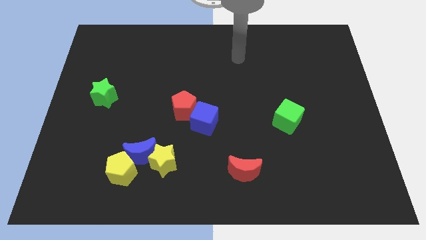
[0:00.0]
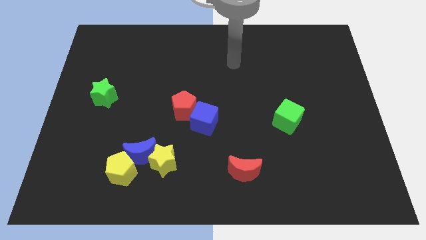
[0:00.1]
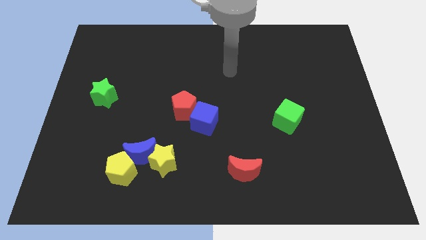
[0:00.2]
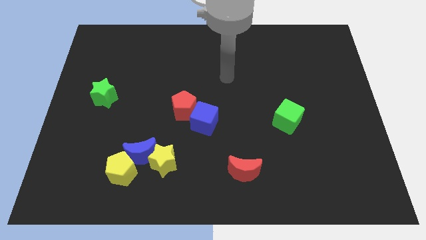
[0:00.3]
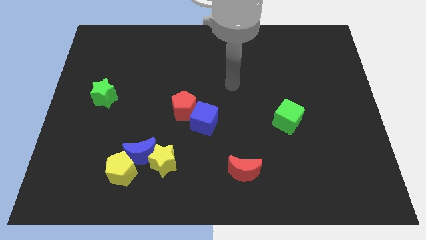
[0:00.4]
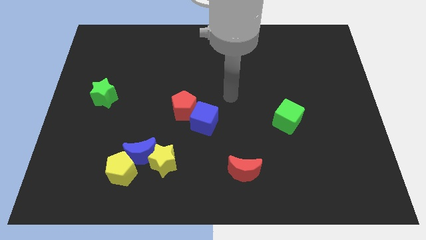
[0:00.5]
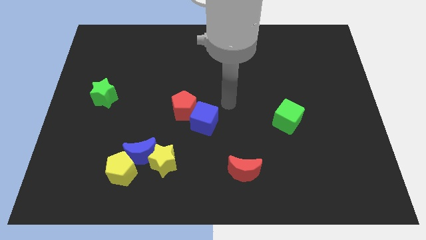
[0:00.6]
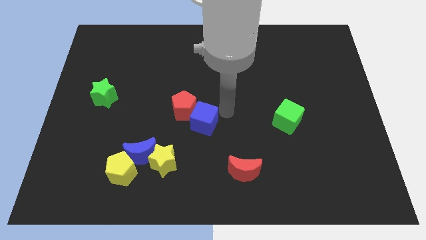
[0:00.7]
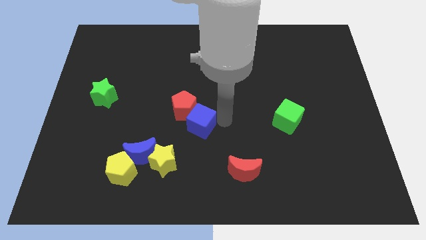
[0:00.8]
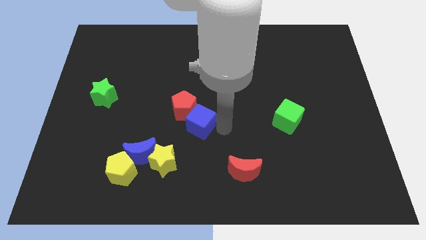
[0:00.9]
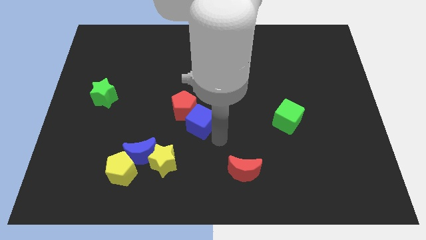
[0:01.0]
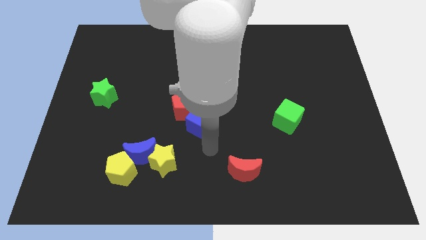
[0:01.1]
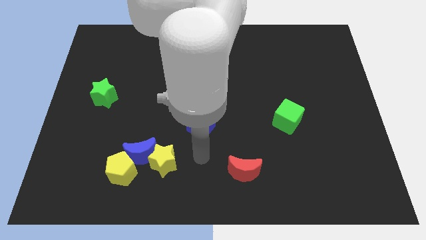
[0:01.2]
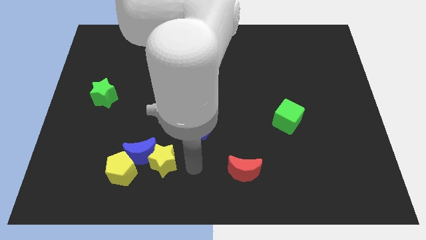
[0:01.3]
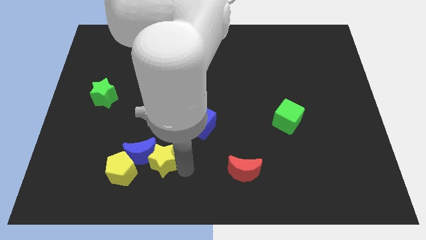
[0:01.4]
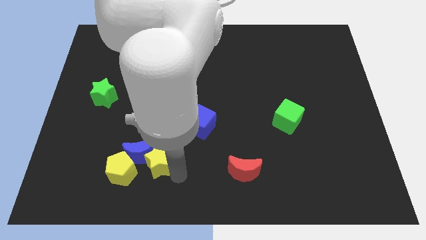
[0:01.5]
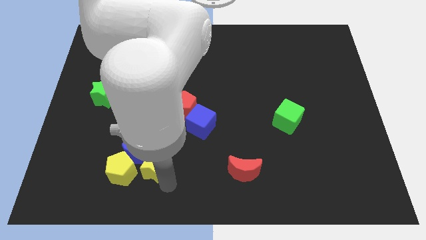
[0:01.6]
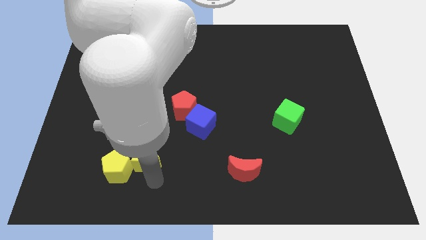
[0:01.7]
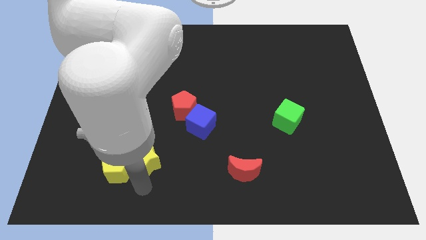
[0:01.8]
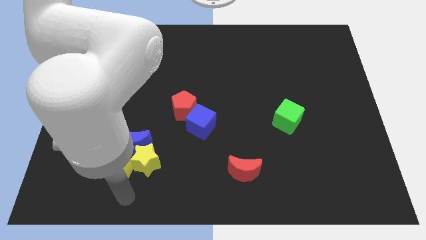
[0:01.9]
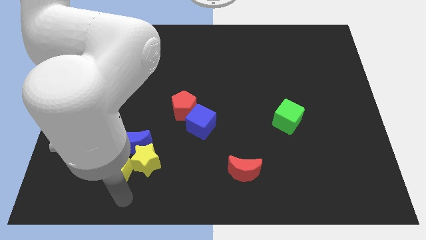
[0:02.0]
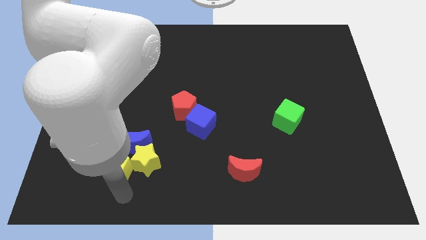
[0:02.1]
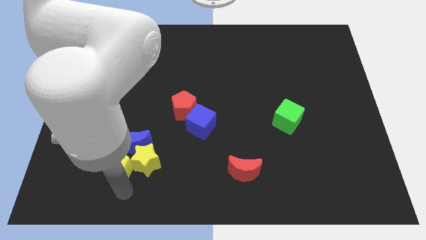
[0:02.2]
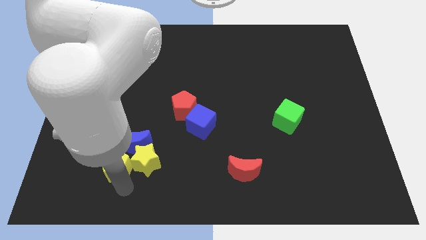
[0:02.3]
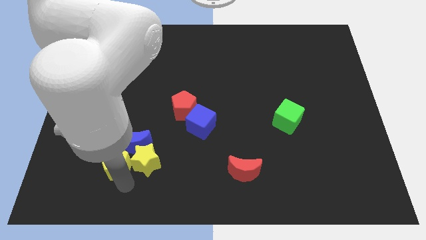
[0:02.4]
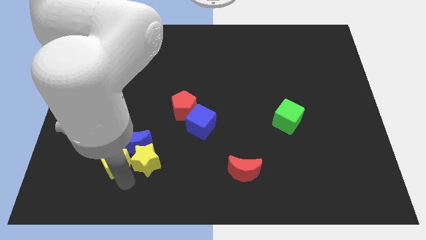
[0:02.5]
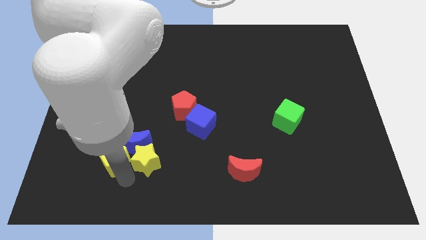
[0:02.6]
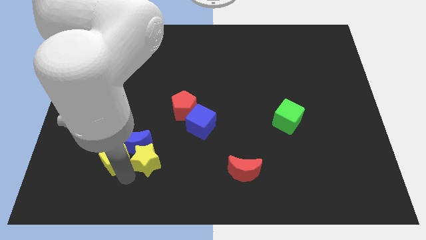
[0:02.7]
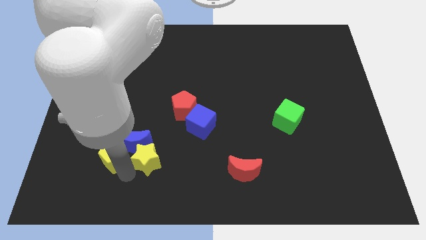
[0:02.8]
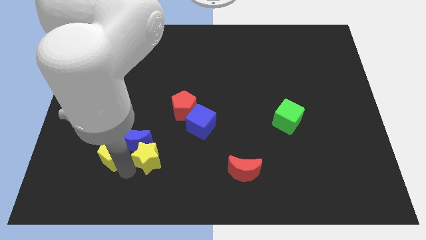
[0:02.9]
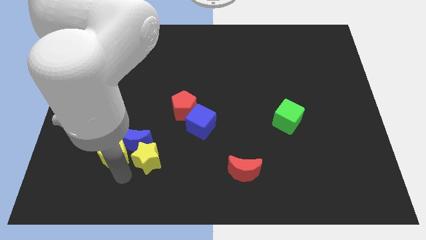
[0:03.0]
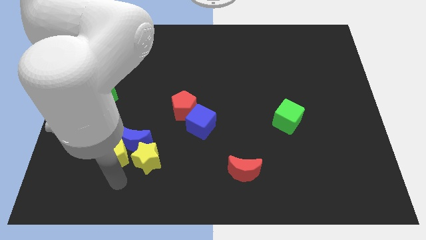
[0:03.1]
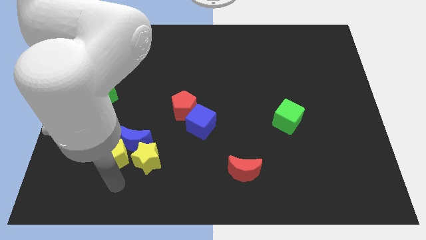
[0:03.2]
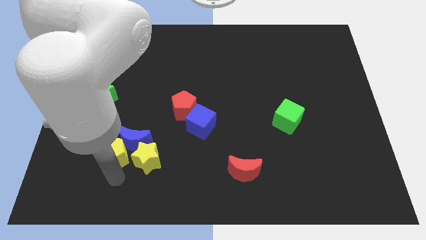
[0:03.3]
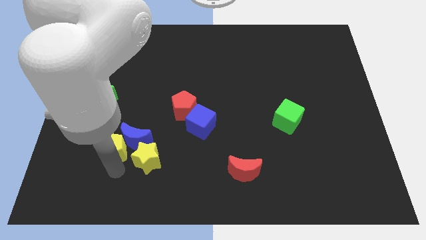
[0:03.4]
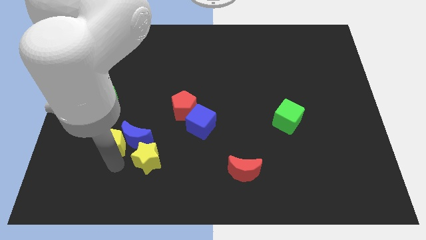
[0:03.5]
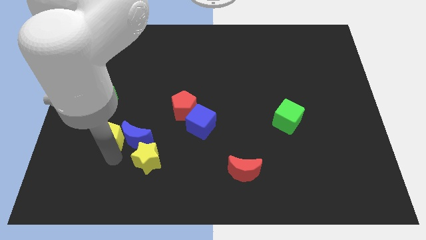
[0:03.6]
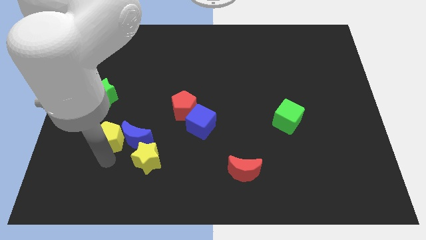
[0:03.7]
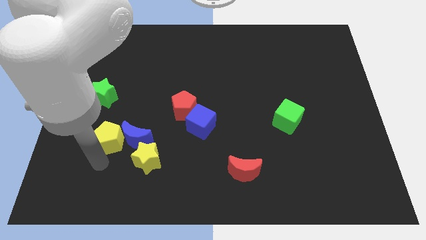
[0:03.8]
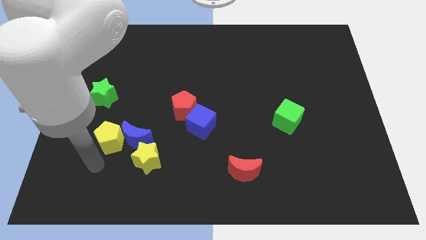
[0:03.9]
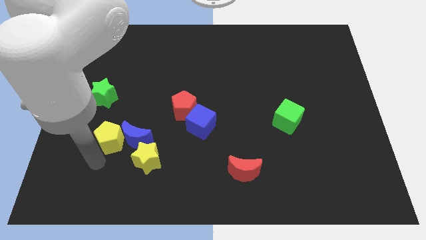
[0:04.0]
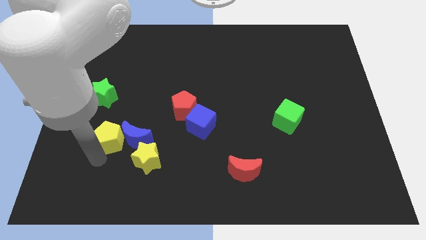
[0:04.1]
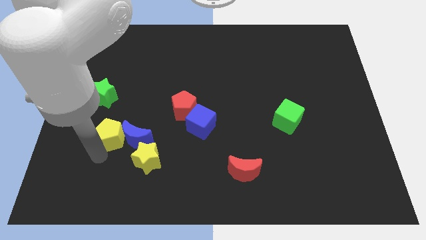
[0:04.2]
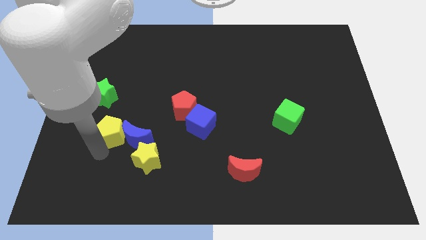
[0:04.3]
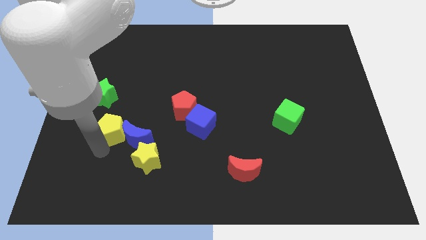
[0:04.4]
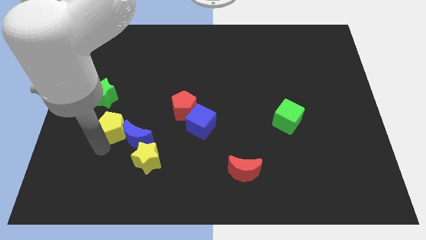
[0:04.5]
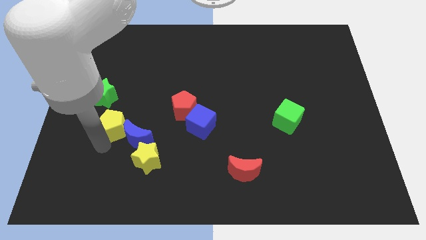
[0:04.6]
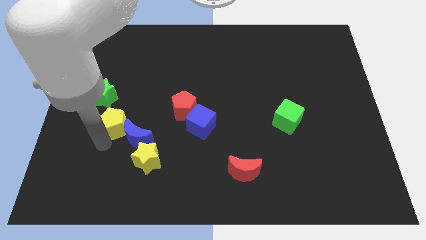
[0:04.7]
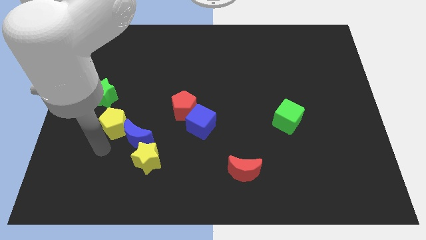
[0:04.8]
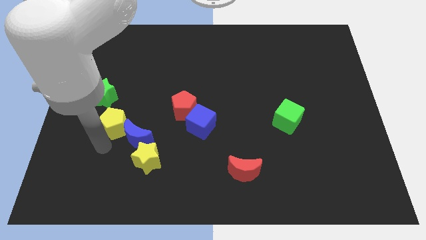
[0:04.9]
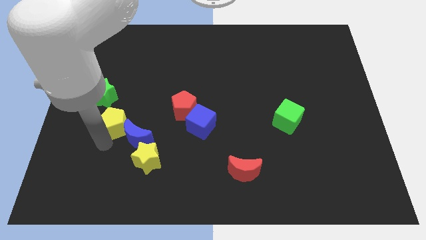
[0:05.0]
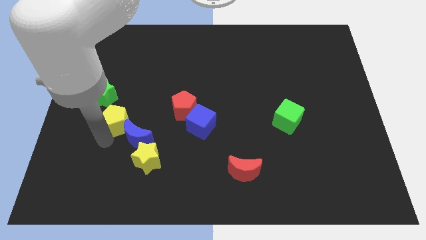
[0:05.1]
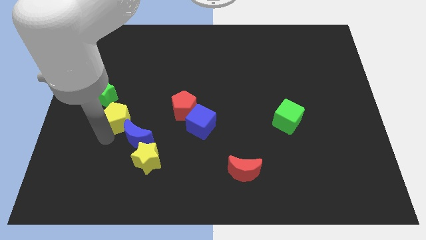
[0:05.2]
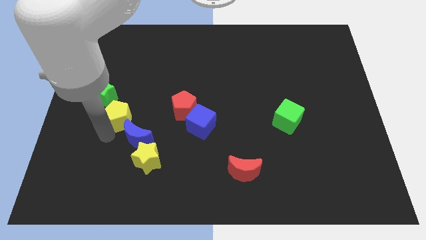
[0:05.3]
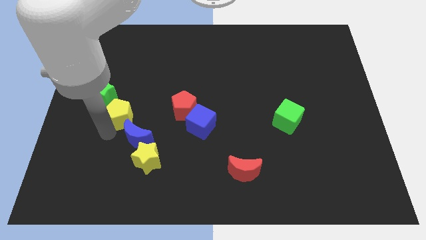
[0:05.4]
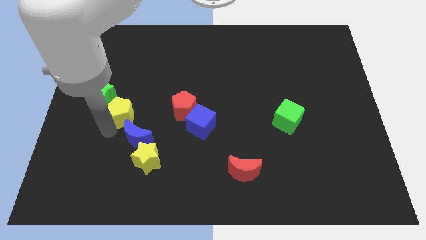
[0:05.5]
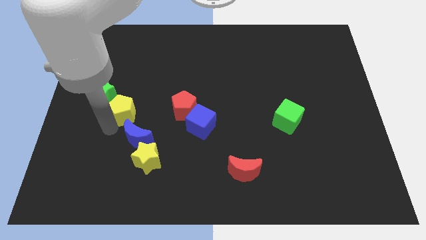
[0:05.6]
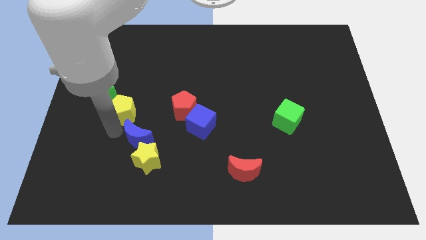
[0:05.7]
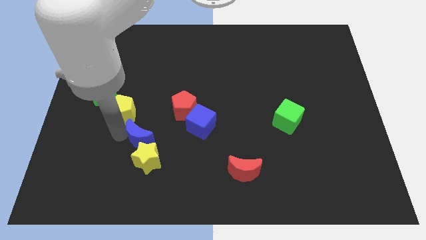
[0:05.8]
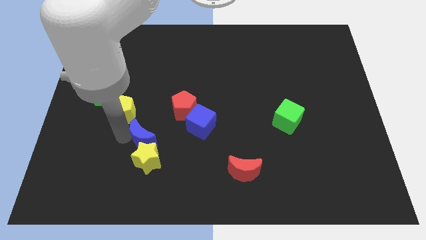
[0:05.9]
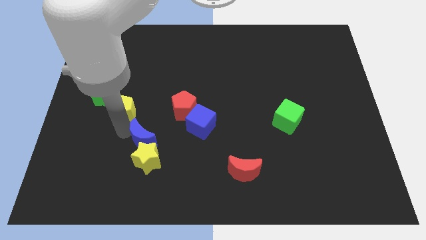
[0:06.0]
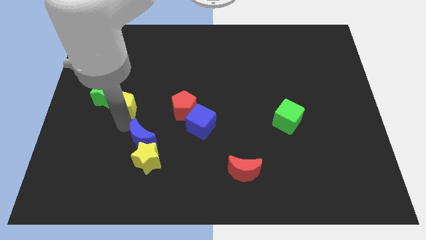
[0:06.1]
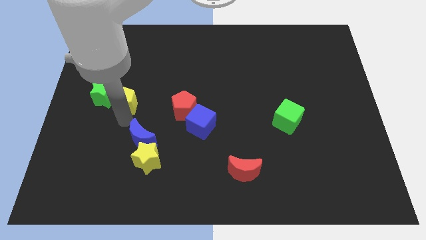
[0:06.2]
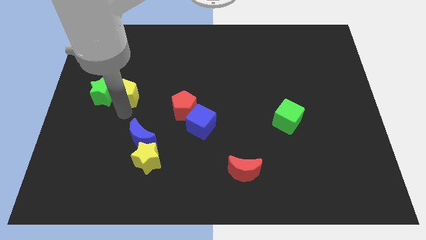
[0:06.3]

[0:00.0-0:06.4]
push the yellow pentagon up

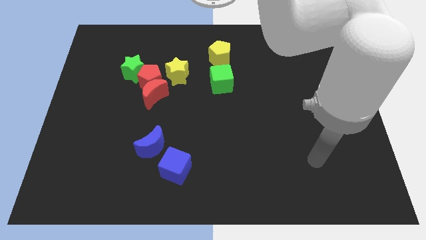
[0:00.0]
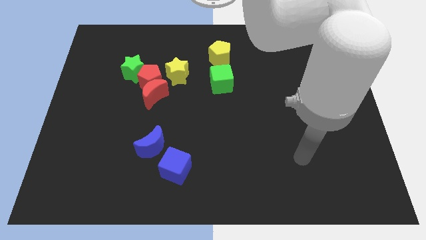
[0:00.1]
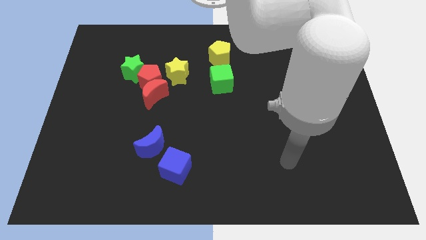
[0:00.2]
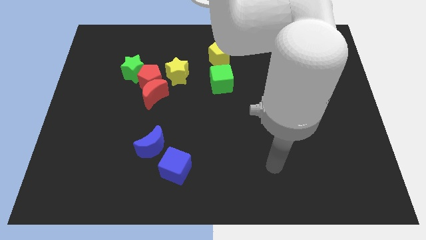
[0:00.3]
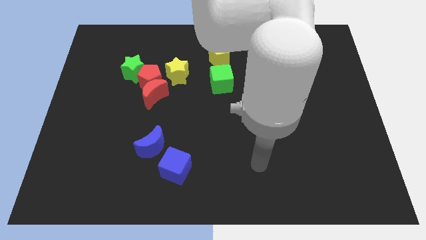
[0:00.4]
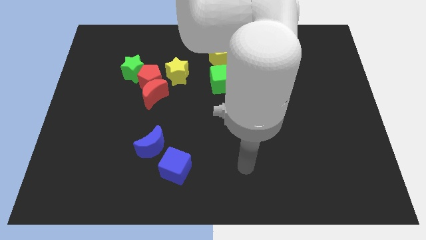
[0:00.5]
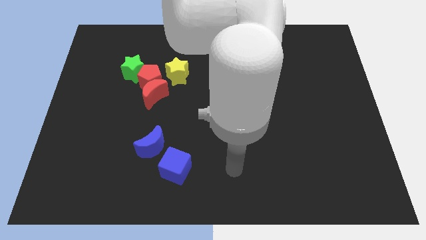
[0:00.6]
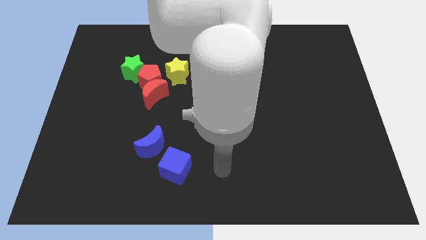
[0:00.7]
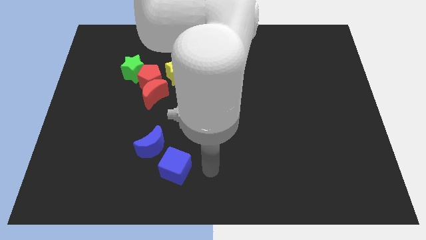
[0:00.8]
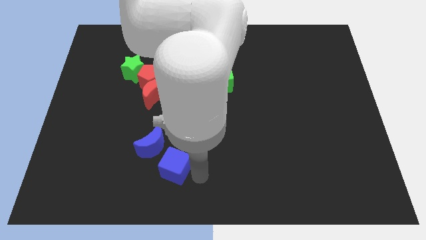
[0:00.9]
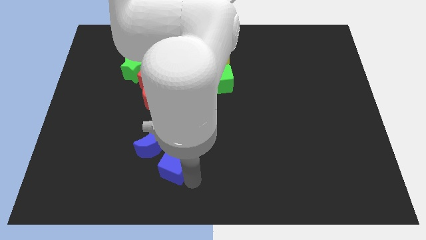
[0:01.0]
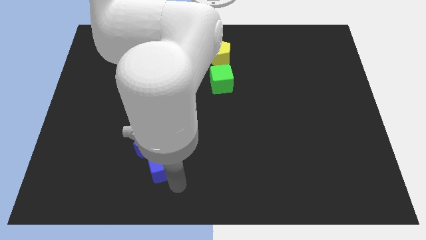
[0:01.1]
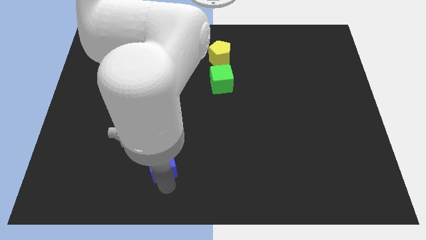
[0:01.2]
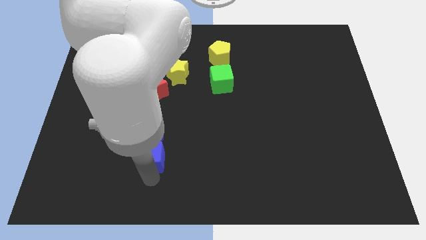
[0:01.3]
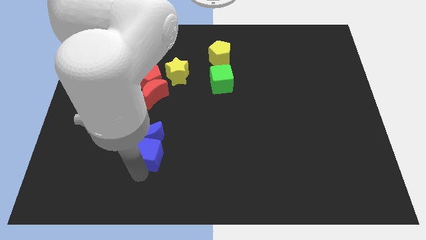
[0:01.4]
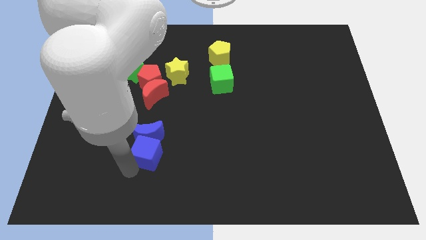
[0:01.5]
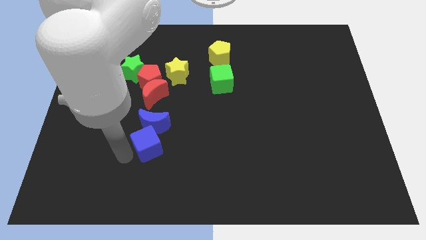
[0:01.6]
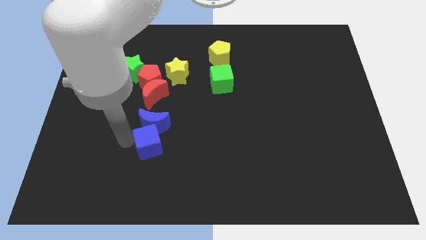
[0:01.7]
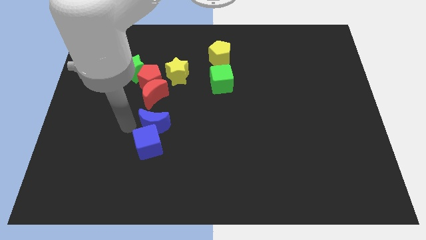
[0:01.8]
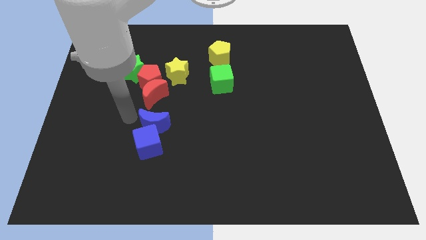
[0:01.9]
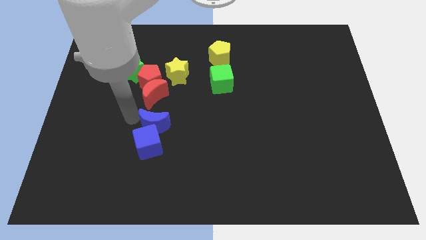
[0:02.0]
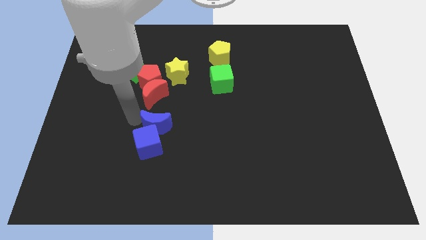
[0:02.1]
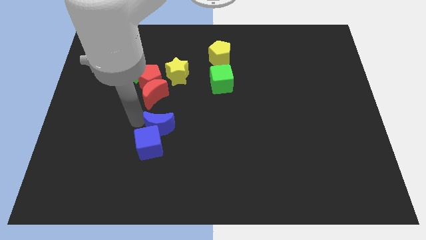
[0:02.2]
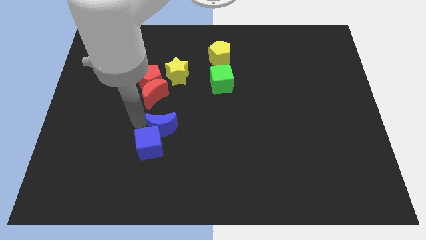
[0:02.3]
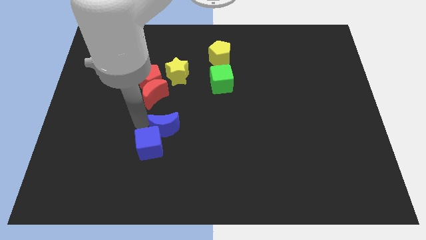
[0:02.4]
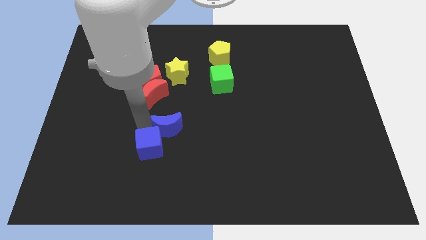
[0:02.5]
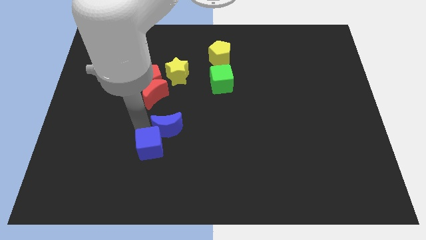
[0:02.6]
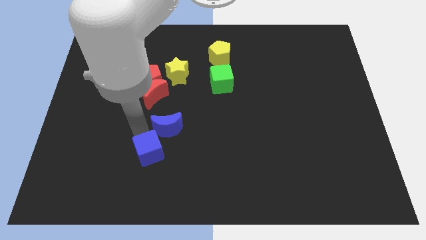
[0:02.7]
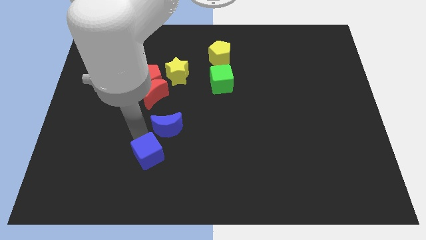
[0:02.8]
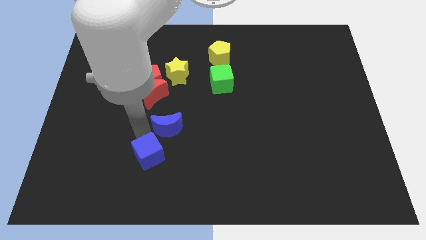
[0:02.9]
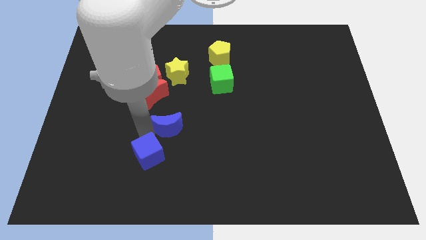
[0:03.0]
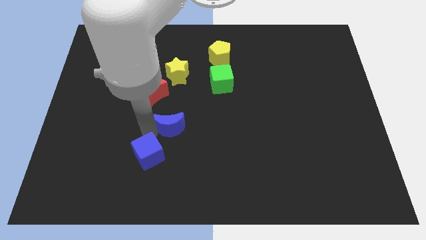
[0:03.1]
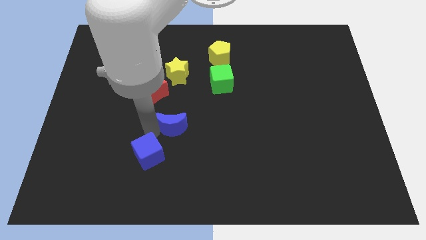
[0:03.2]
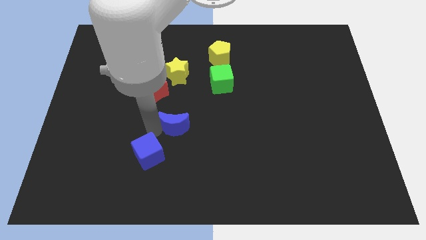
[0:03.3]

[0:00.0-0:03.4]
move the blue moon up and right diagonally a little bit
